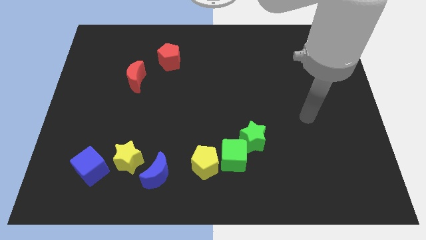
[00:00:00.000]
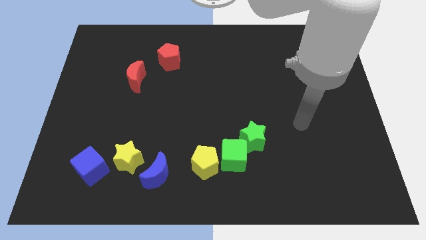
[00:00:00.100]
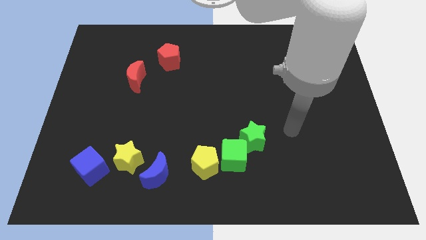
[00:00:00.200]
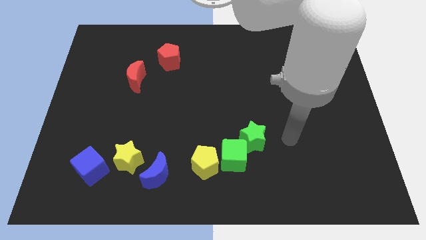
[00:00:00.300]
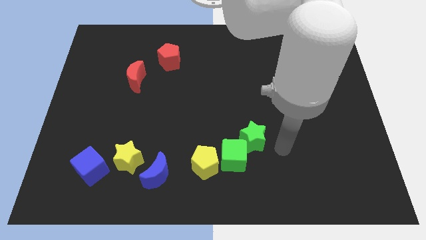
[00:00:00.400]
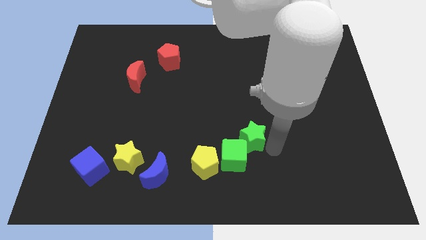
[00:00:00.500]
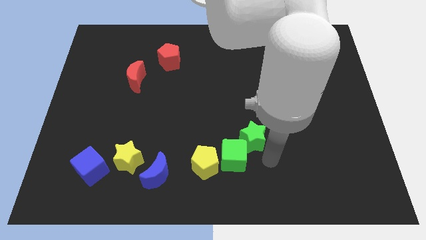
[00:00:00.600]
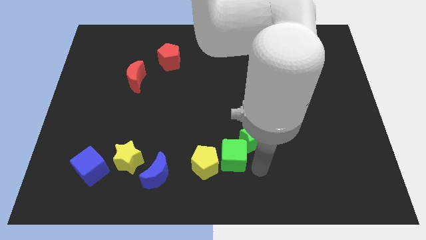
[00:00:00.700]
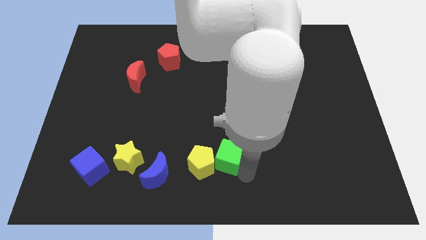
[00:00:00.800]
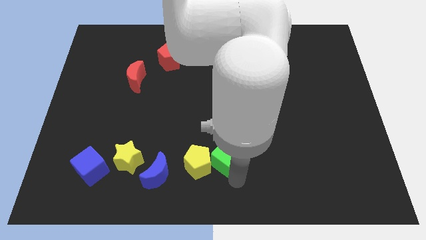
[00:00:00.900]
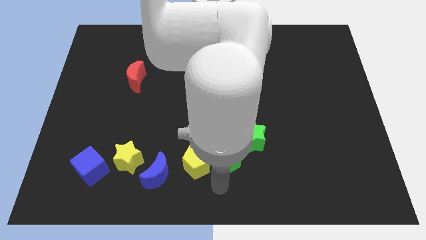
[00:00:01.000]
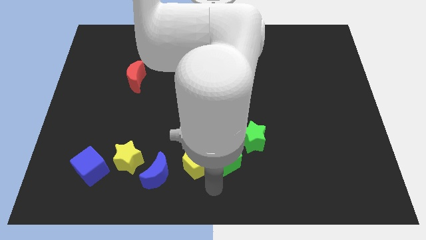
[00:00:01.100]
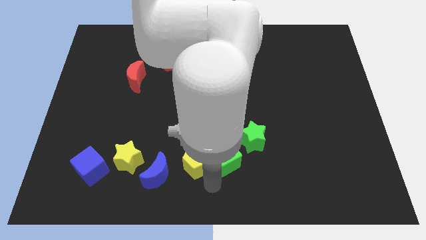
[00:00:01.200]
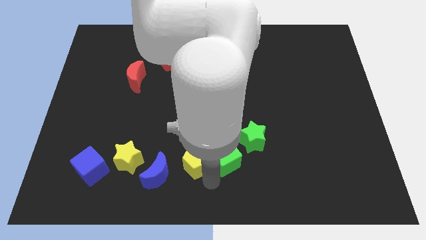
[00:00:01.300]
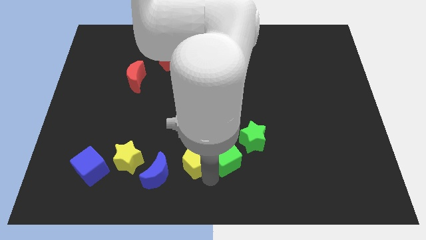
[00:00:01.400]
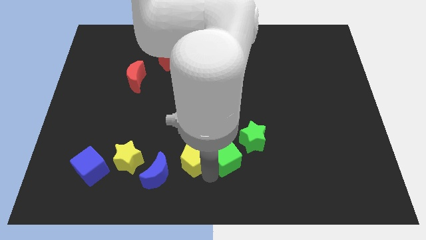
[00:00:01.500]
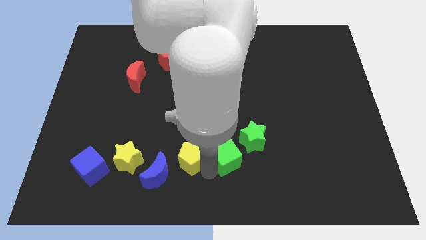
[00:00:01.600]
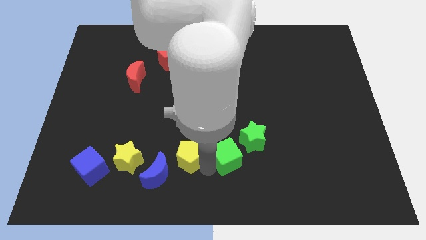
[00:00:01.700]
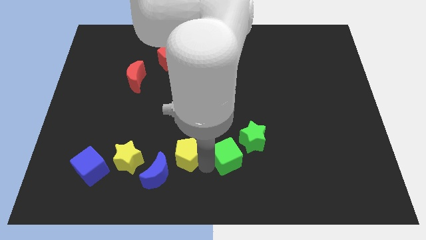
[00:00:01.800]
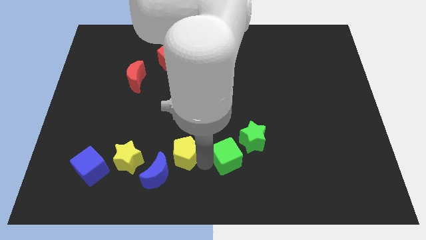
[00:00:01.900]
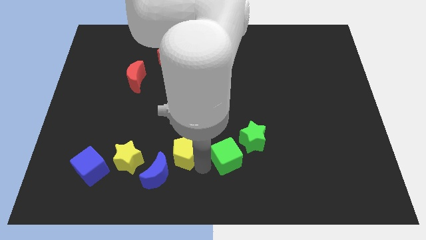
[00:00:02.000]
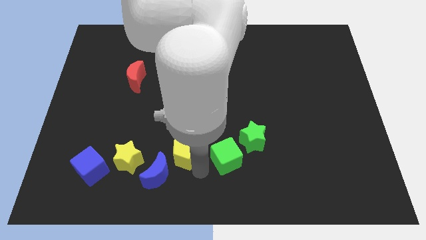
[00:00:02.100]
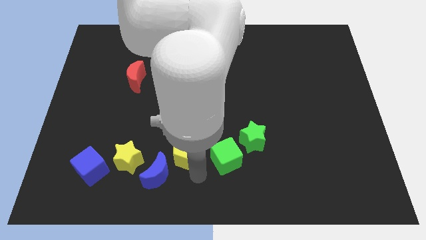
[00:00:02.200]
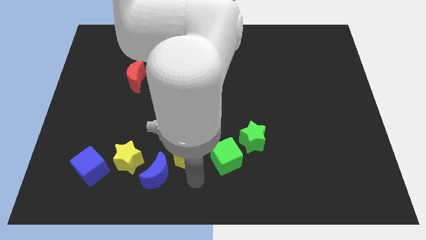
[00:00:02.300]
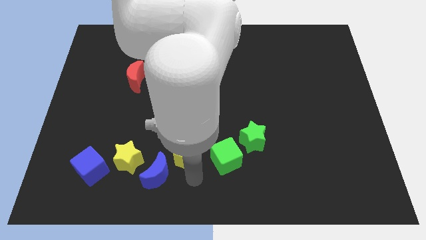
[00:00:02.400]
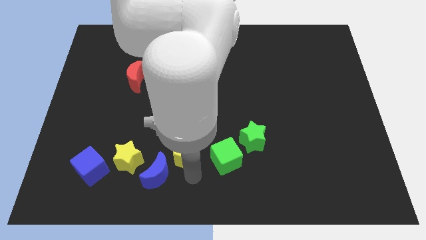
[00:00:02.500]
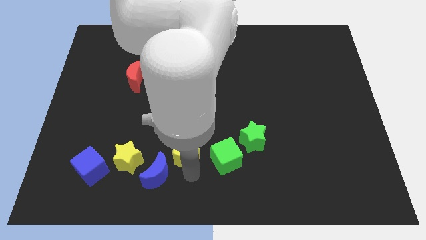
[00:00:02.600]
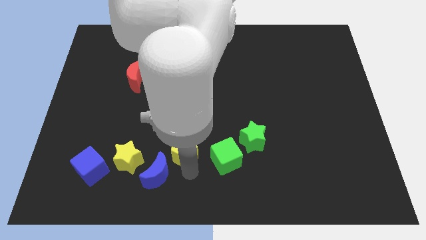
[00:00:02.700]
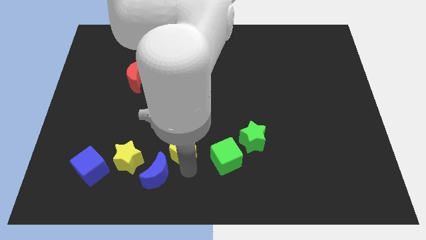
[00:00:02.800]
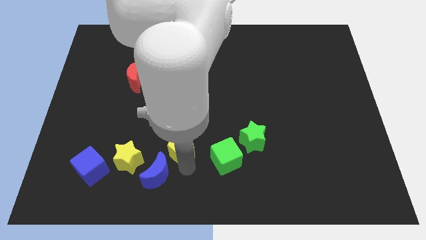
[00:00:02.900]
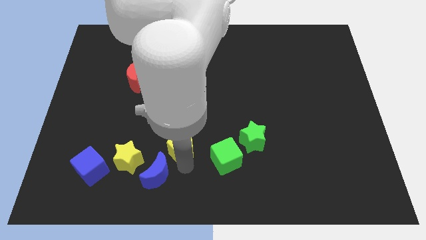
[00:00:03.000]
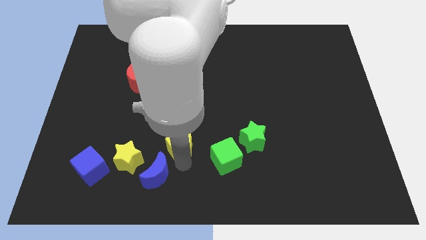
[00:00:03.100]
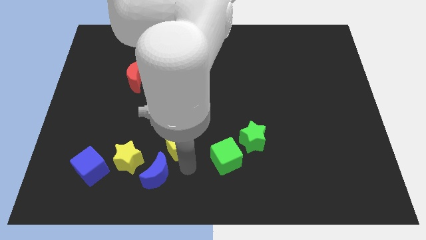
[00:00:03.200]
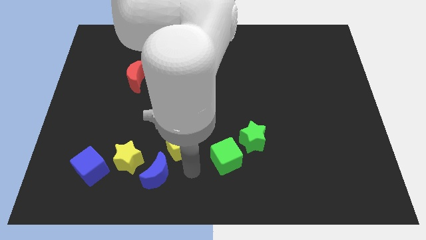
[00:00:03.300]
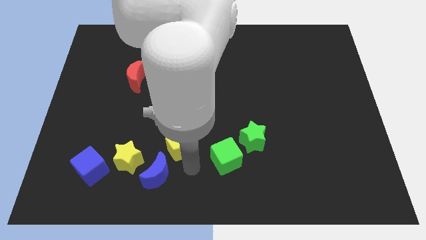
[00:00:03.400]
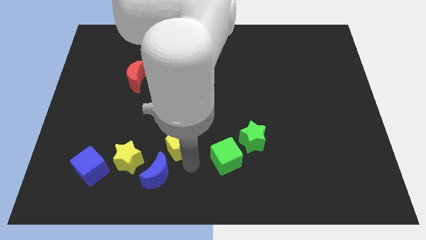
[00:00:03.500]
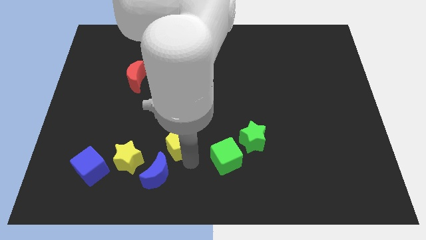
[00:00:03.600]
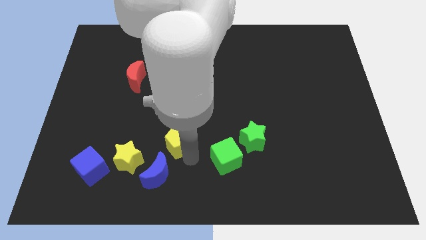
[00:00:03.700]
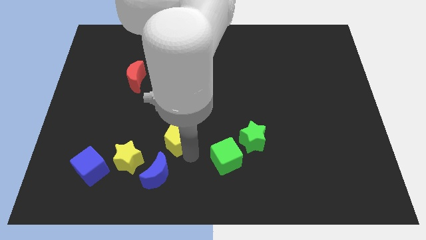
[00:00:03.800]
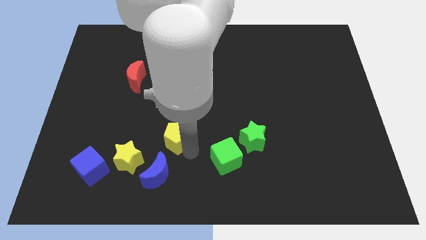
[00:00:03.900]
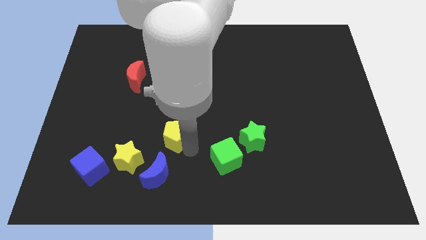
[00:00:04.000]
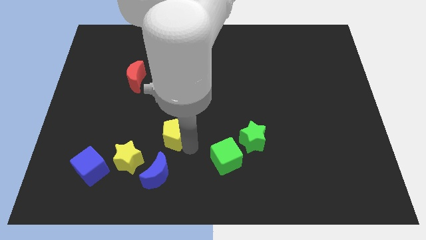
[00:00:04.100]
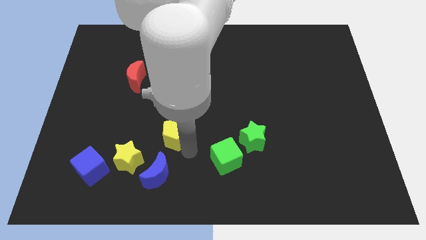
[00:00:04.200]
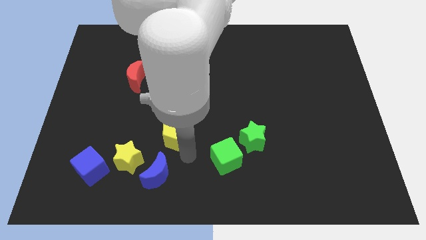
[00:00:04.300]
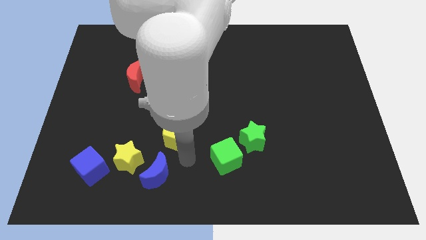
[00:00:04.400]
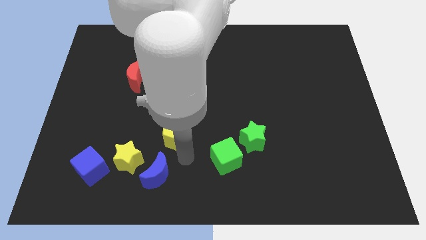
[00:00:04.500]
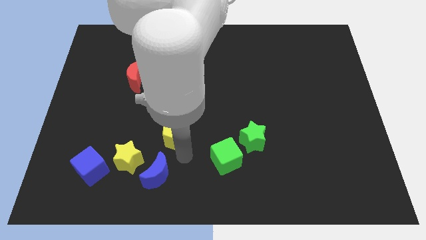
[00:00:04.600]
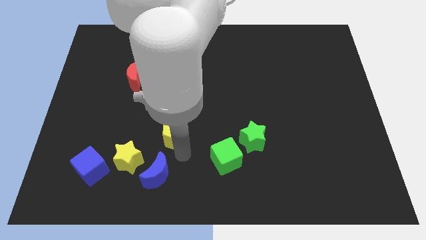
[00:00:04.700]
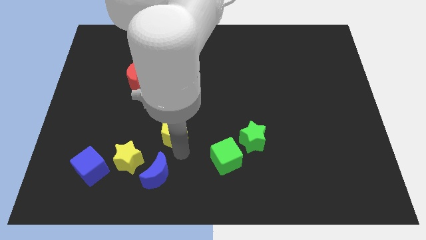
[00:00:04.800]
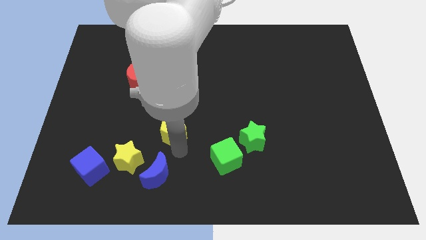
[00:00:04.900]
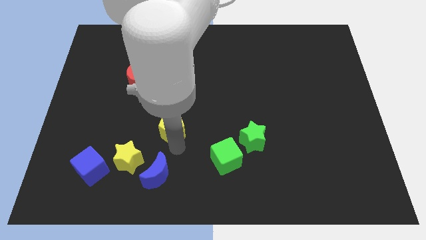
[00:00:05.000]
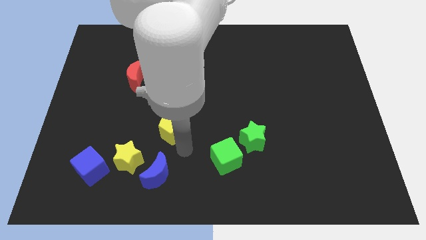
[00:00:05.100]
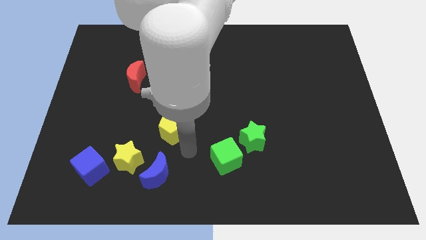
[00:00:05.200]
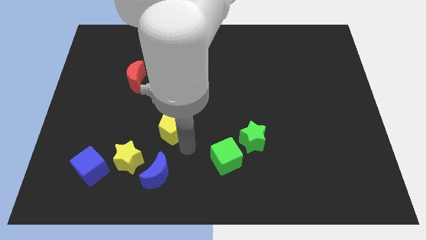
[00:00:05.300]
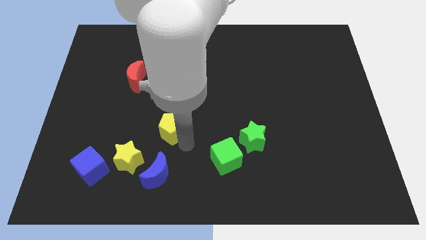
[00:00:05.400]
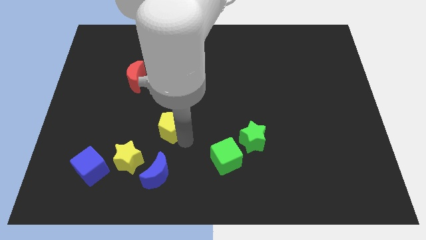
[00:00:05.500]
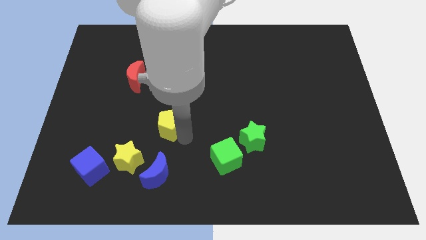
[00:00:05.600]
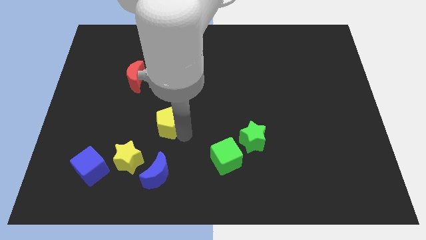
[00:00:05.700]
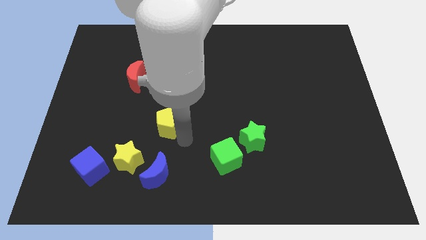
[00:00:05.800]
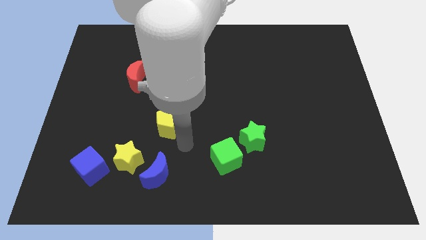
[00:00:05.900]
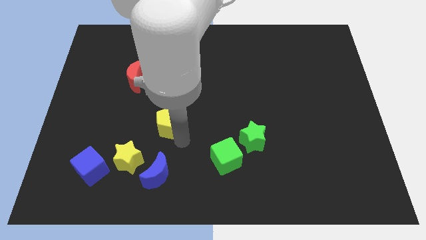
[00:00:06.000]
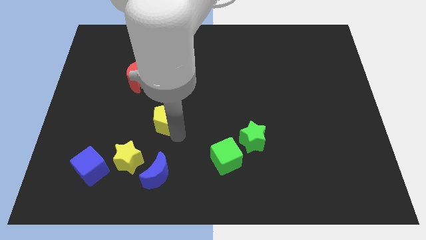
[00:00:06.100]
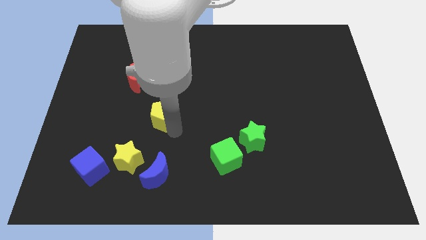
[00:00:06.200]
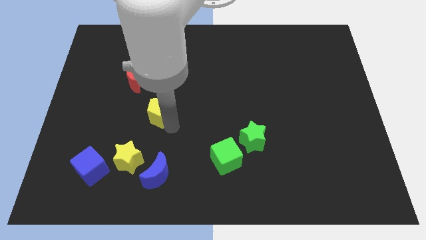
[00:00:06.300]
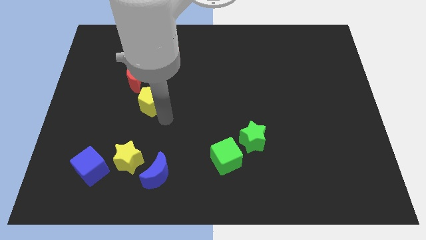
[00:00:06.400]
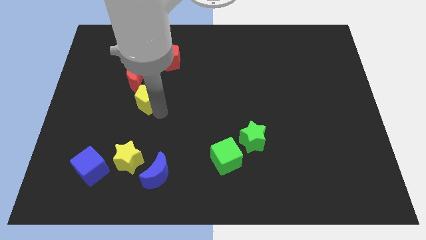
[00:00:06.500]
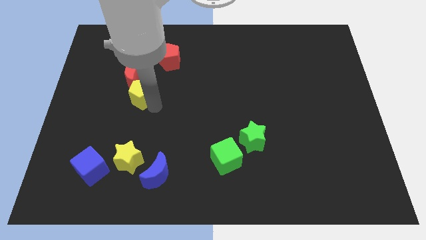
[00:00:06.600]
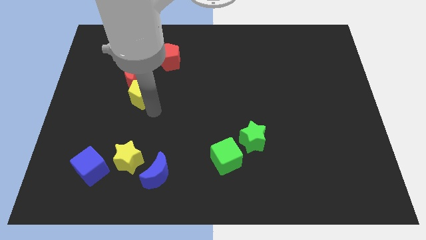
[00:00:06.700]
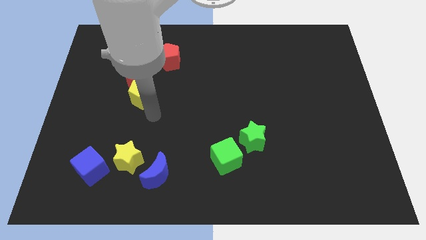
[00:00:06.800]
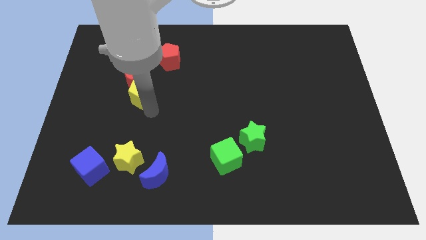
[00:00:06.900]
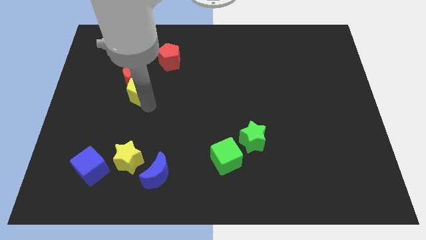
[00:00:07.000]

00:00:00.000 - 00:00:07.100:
push the yellow pentagon to the red moon

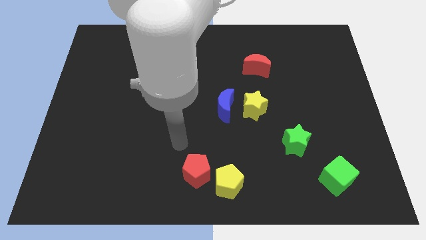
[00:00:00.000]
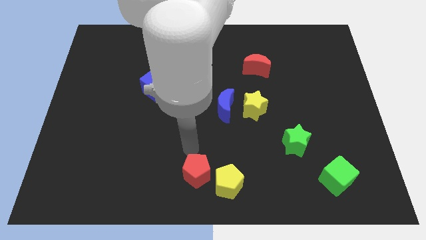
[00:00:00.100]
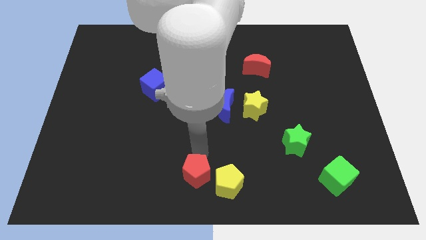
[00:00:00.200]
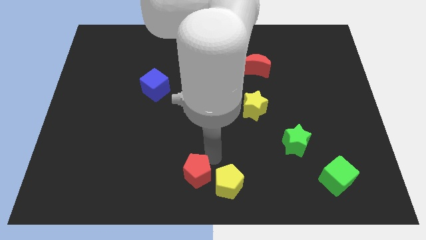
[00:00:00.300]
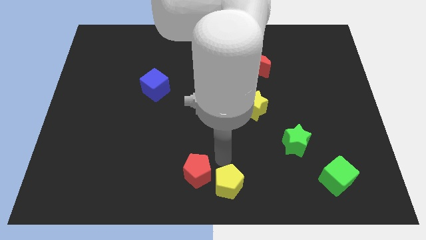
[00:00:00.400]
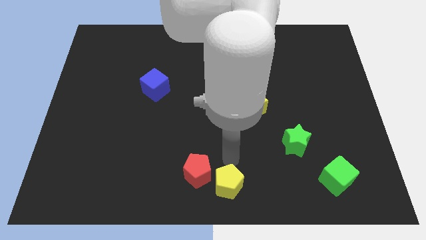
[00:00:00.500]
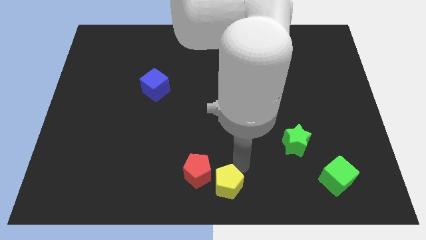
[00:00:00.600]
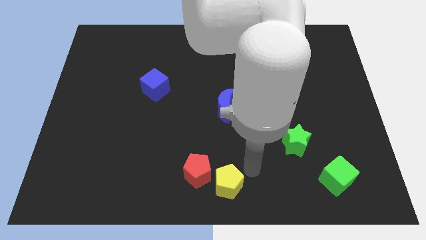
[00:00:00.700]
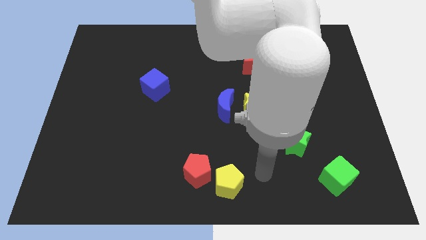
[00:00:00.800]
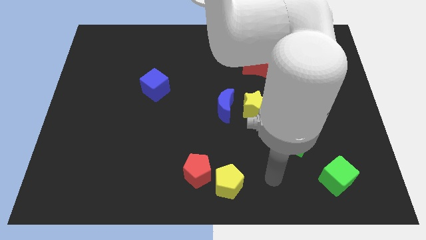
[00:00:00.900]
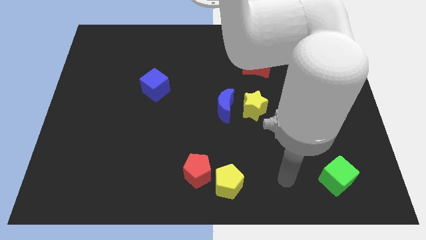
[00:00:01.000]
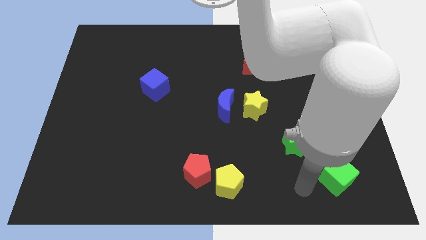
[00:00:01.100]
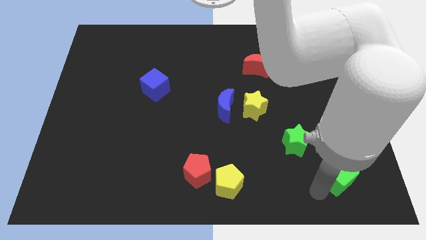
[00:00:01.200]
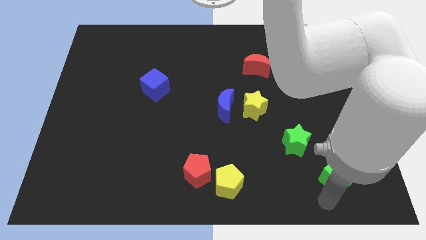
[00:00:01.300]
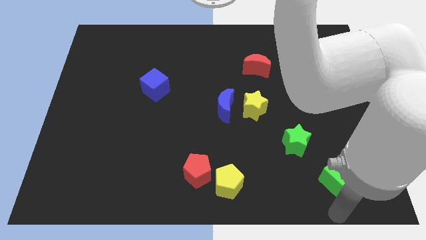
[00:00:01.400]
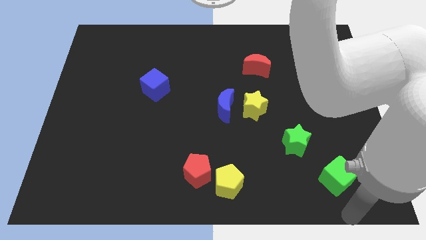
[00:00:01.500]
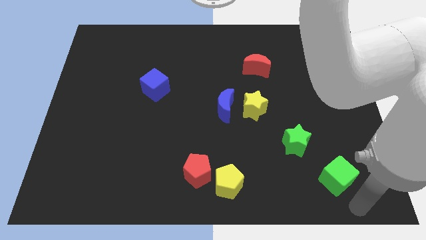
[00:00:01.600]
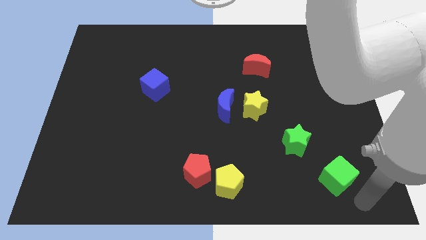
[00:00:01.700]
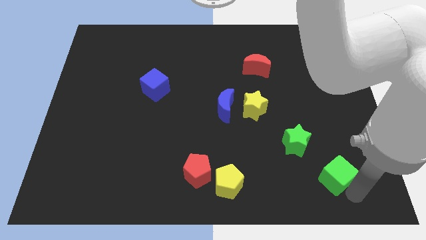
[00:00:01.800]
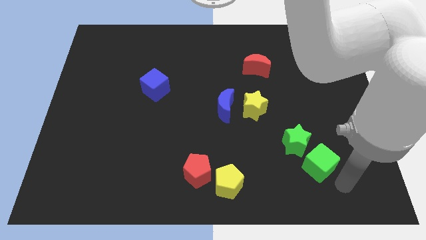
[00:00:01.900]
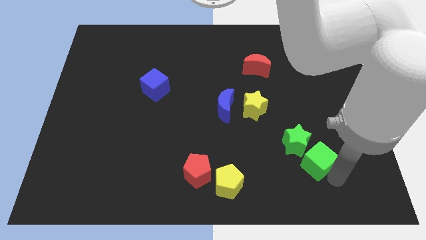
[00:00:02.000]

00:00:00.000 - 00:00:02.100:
push the green cube next to the green star
